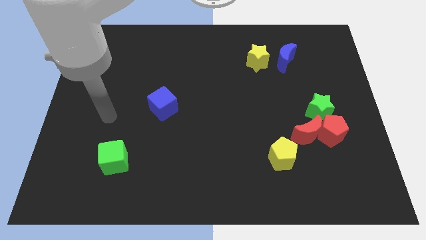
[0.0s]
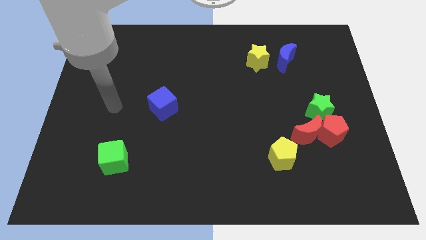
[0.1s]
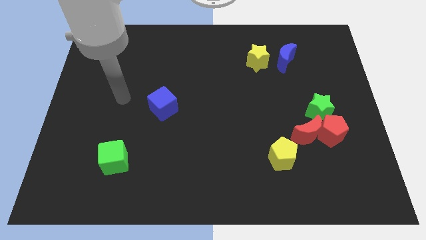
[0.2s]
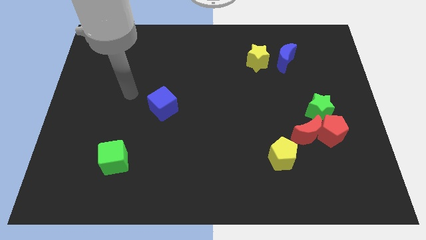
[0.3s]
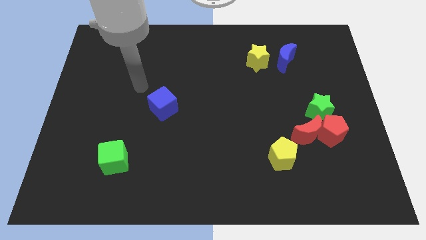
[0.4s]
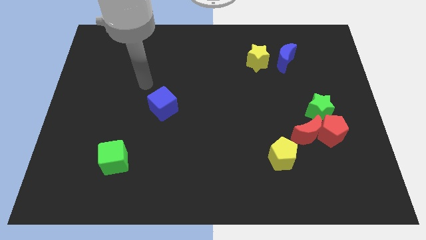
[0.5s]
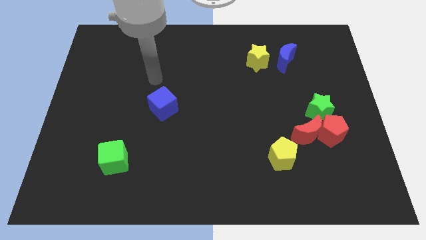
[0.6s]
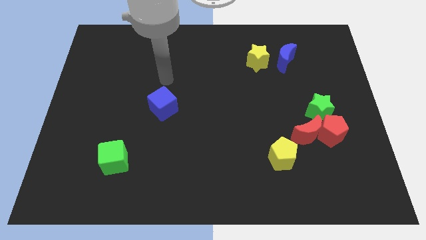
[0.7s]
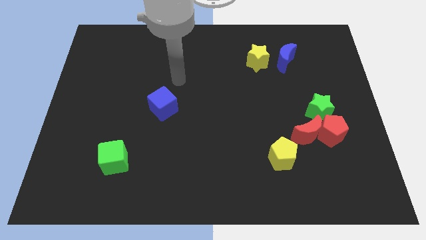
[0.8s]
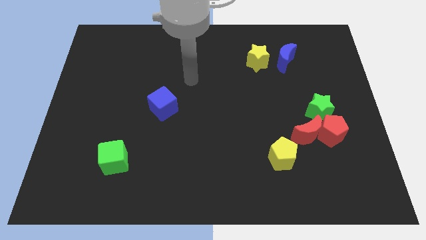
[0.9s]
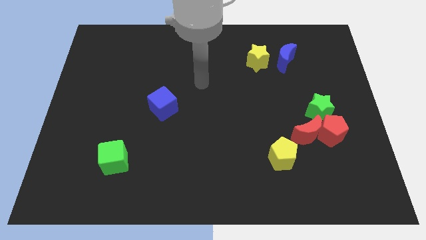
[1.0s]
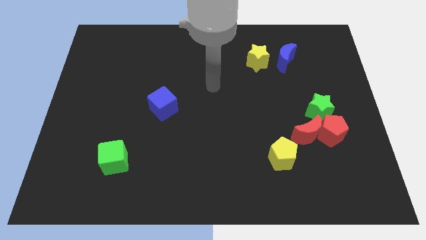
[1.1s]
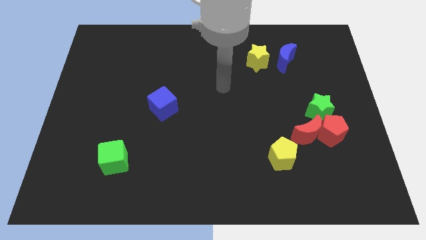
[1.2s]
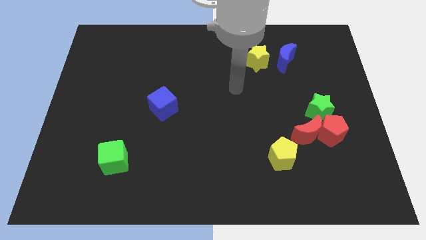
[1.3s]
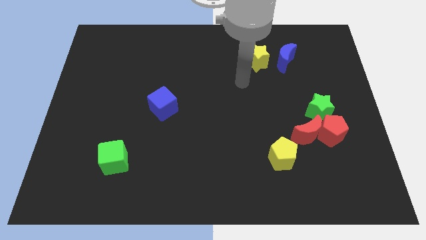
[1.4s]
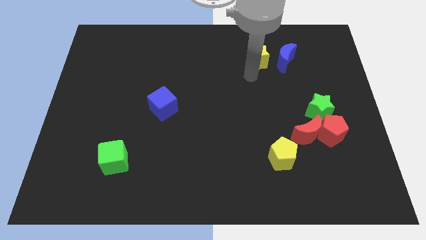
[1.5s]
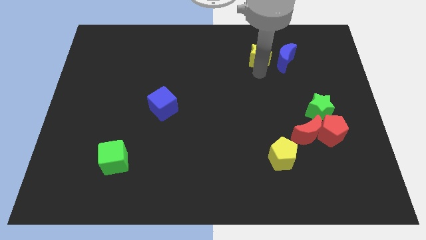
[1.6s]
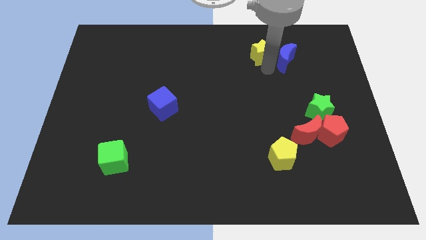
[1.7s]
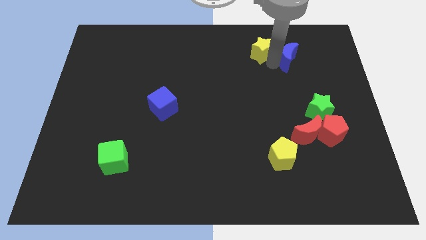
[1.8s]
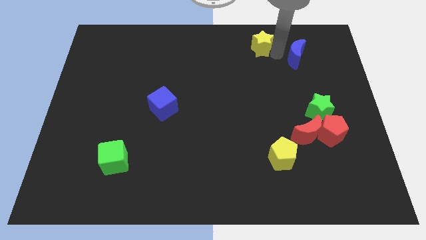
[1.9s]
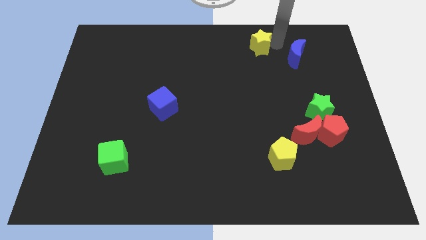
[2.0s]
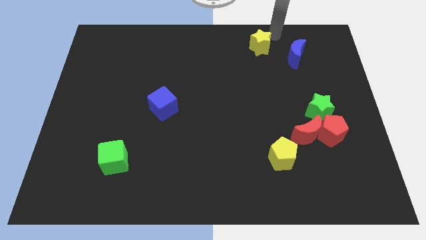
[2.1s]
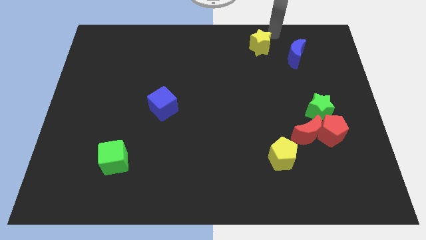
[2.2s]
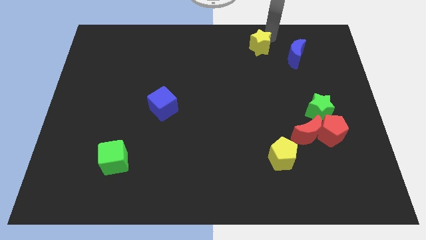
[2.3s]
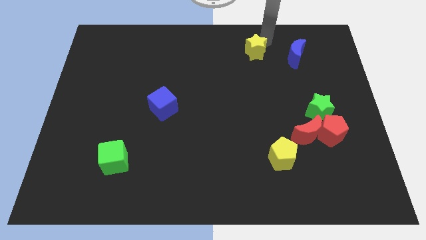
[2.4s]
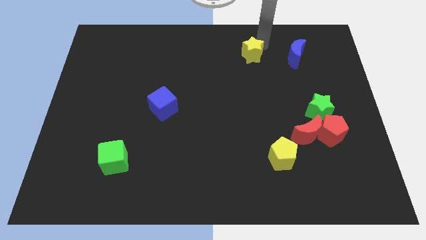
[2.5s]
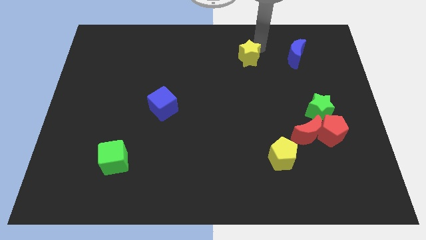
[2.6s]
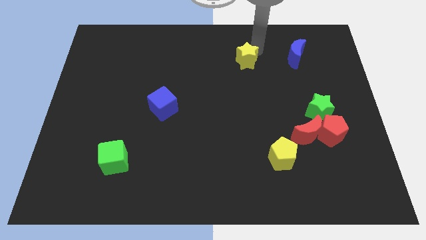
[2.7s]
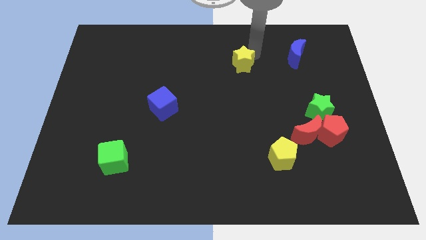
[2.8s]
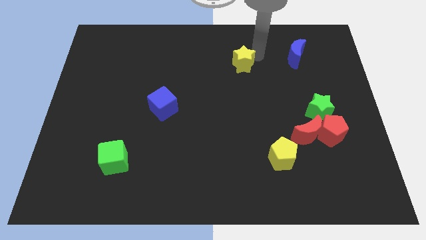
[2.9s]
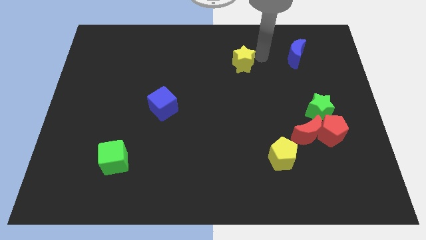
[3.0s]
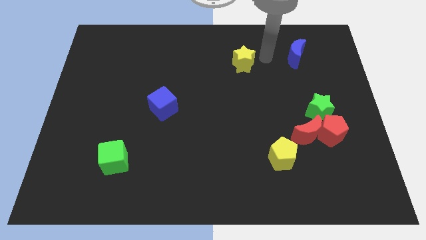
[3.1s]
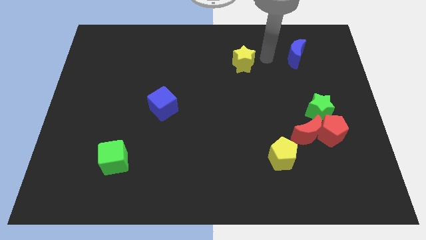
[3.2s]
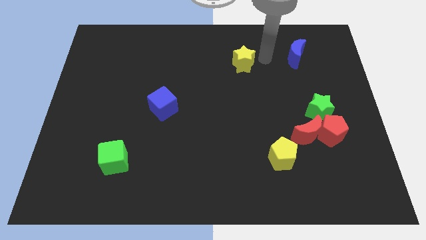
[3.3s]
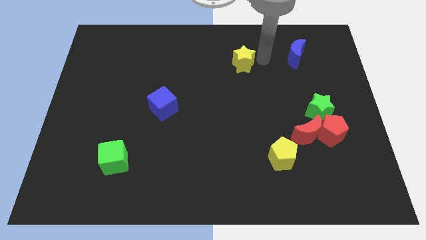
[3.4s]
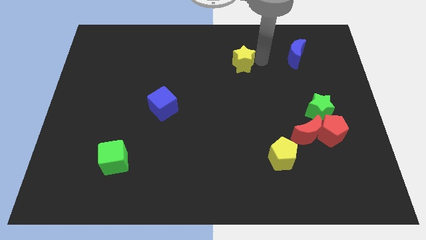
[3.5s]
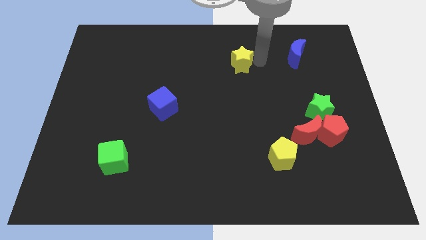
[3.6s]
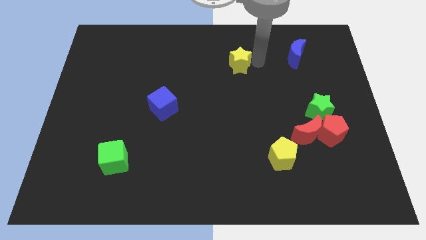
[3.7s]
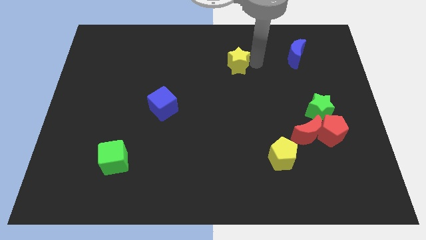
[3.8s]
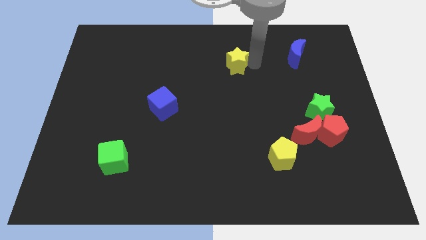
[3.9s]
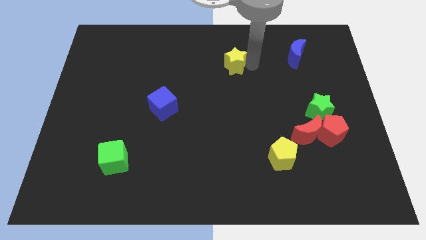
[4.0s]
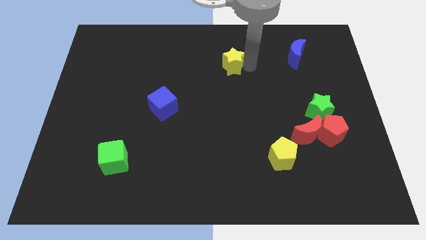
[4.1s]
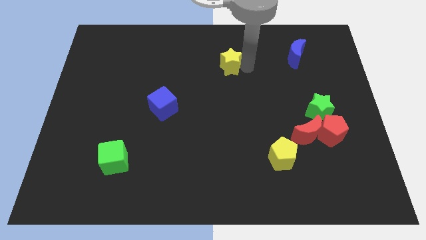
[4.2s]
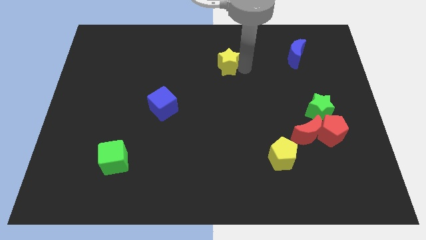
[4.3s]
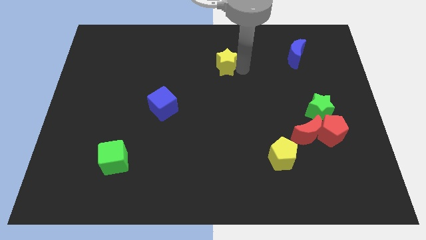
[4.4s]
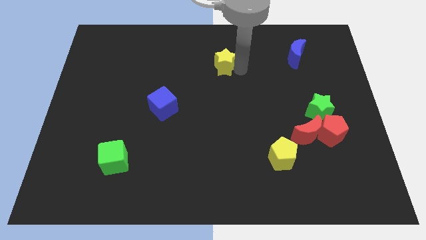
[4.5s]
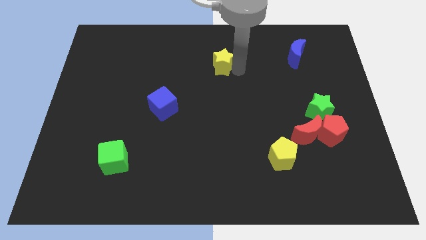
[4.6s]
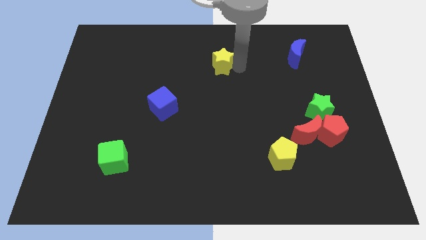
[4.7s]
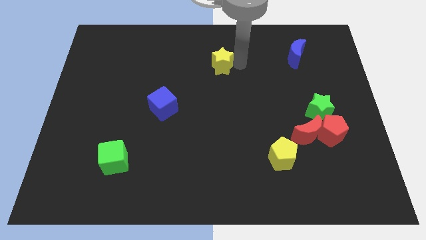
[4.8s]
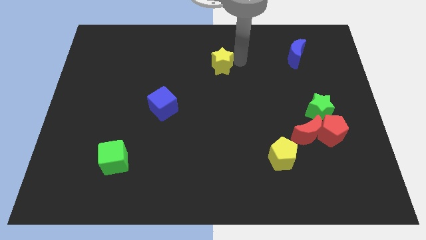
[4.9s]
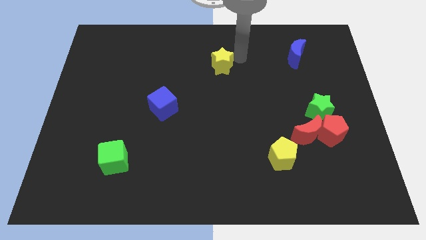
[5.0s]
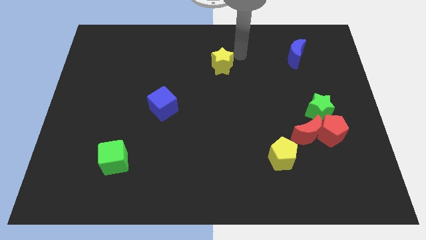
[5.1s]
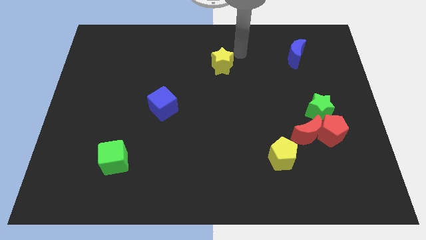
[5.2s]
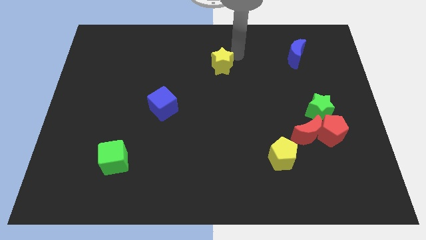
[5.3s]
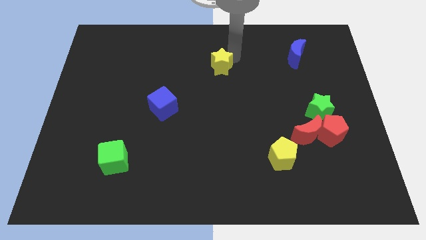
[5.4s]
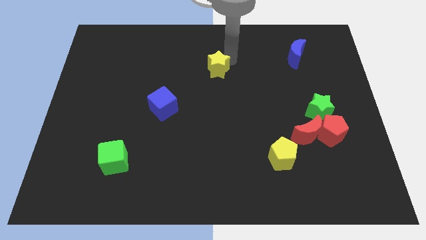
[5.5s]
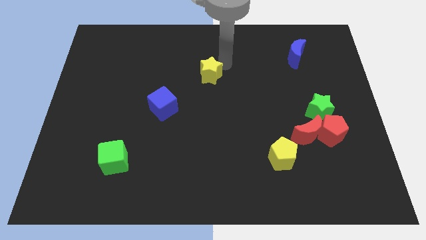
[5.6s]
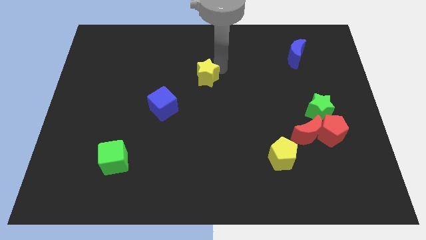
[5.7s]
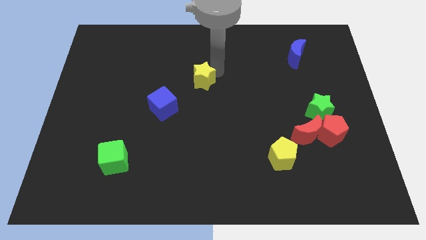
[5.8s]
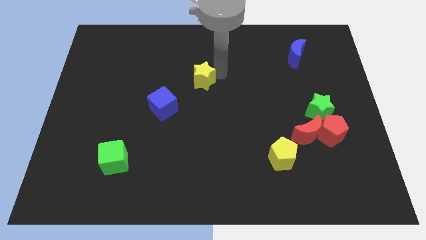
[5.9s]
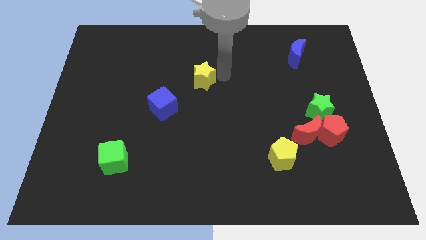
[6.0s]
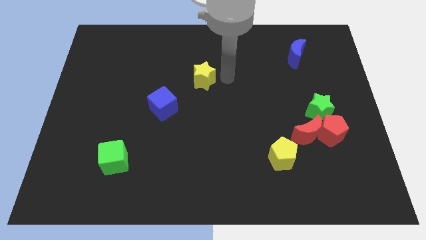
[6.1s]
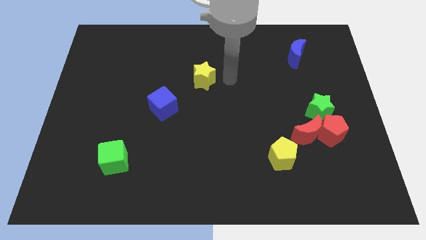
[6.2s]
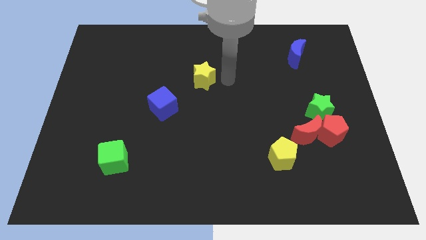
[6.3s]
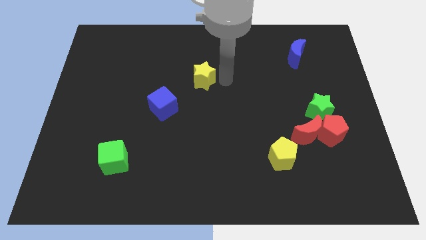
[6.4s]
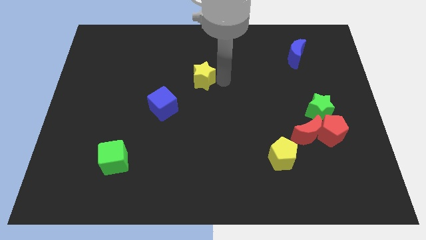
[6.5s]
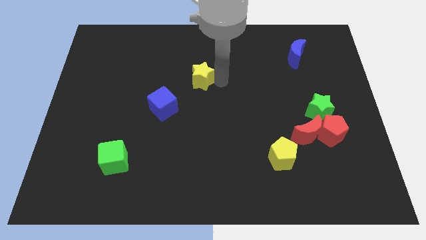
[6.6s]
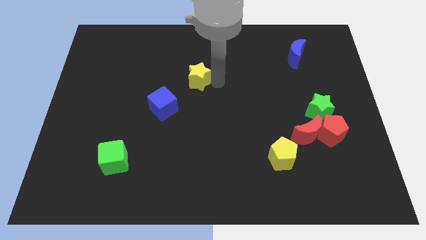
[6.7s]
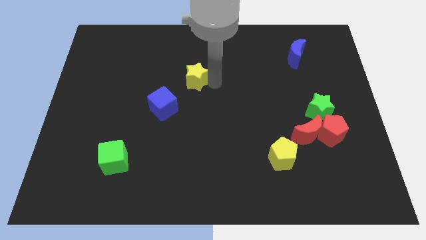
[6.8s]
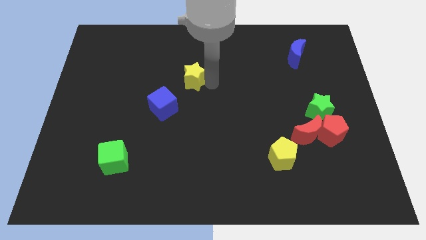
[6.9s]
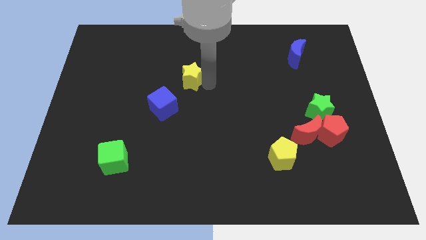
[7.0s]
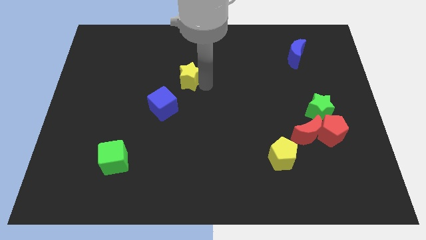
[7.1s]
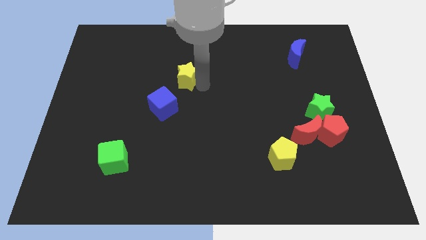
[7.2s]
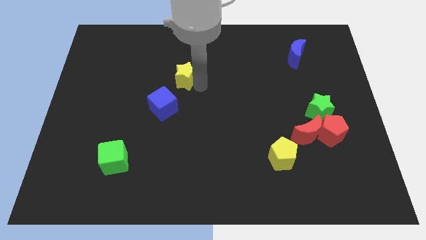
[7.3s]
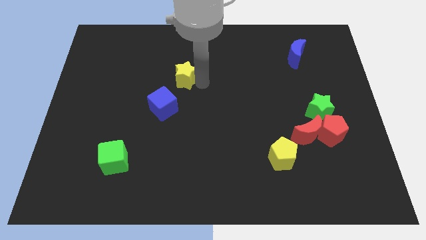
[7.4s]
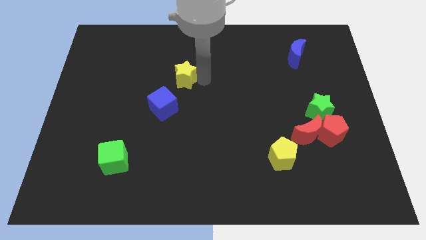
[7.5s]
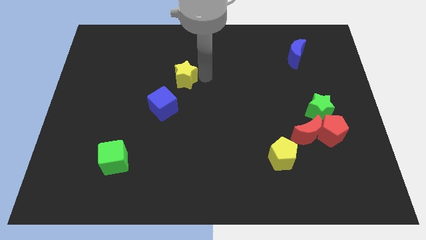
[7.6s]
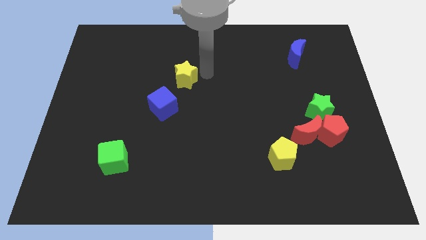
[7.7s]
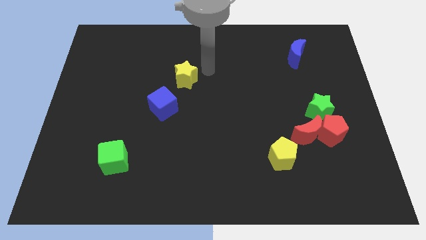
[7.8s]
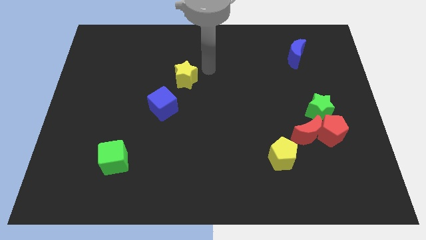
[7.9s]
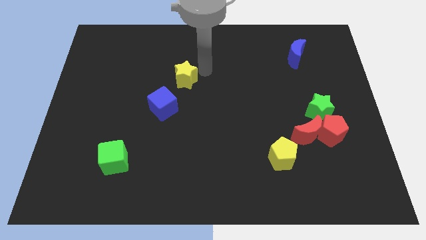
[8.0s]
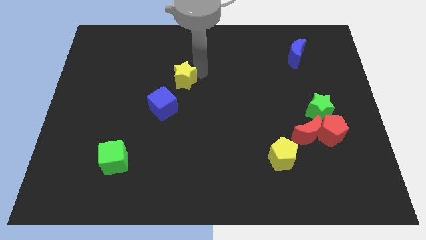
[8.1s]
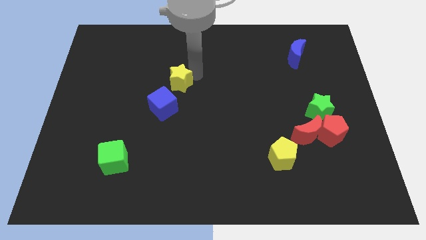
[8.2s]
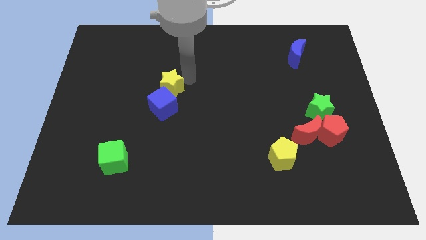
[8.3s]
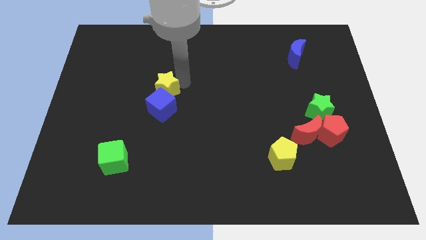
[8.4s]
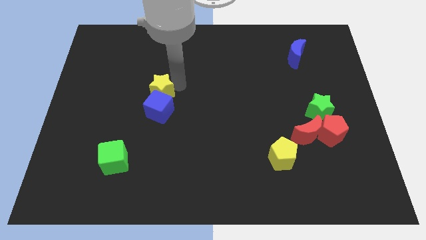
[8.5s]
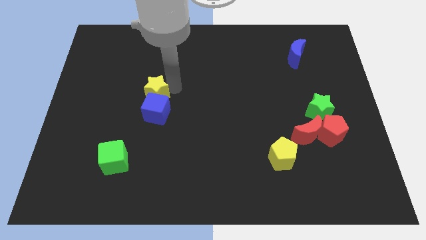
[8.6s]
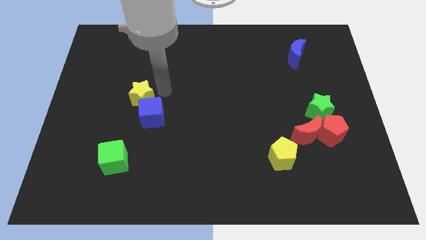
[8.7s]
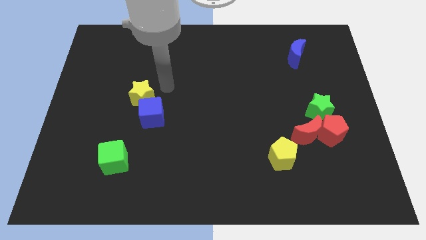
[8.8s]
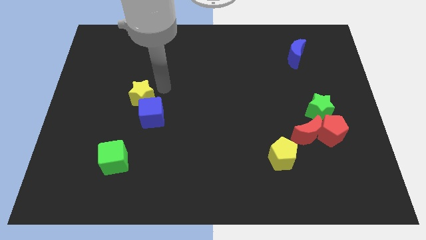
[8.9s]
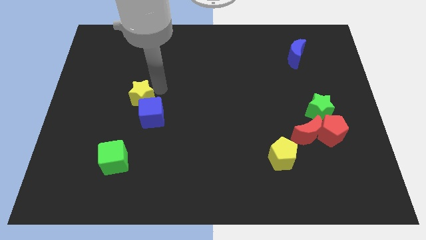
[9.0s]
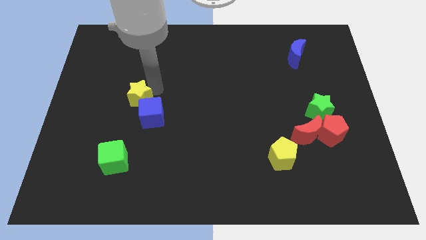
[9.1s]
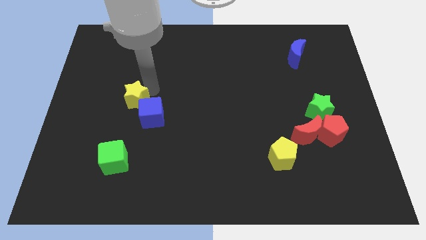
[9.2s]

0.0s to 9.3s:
push the yellow star to the left of the blue cube
